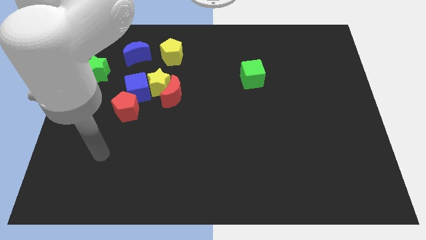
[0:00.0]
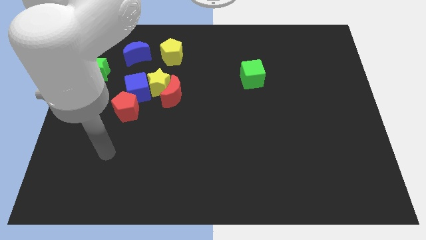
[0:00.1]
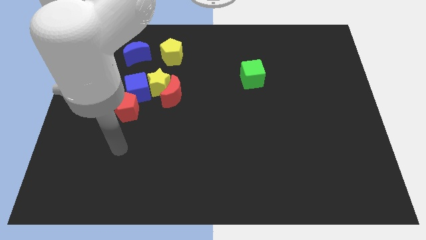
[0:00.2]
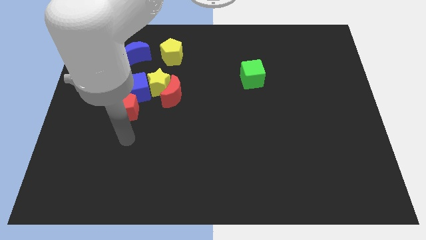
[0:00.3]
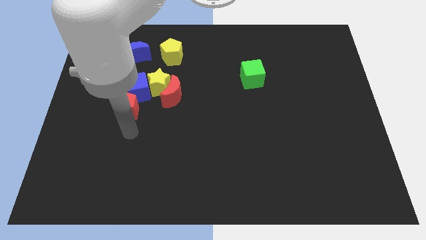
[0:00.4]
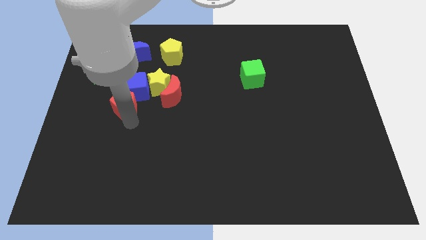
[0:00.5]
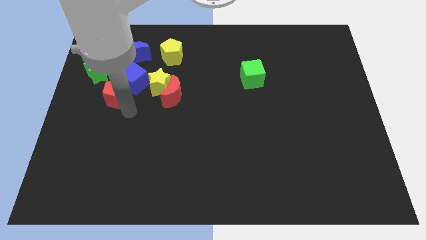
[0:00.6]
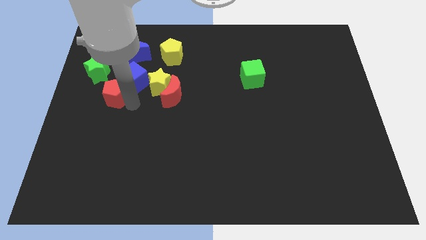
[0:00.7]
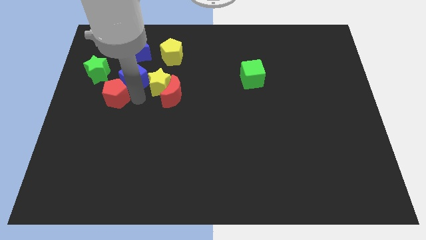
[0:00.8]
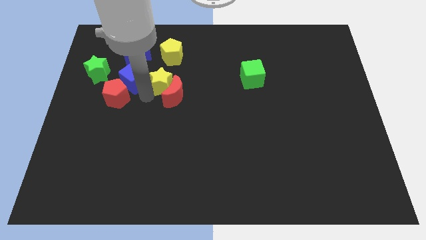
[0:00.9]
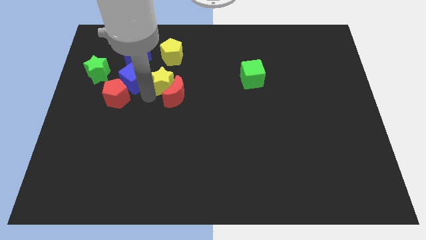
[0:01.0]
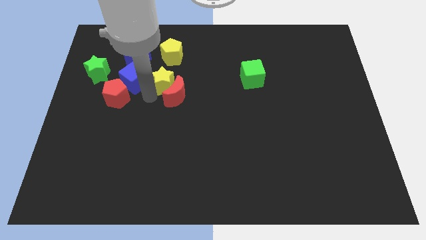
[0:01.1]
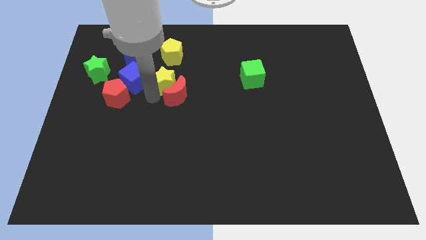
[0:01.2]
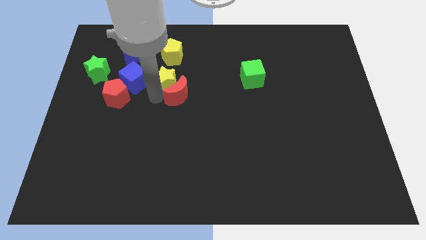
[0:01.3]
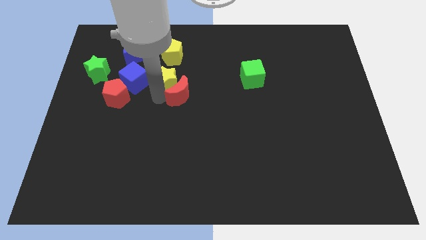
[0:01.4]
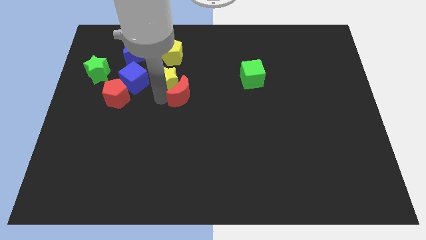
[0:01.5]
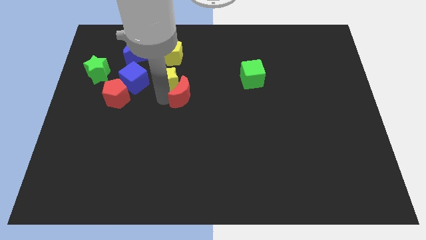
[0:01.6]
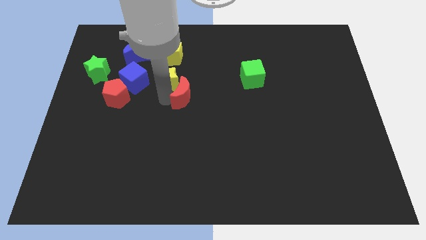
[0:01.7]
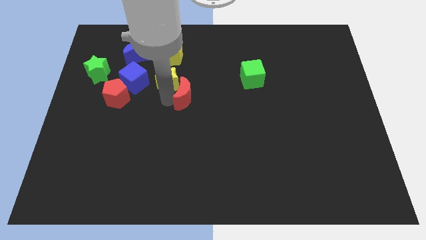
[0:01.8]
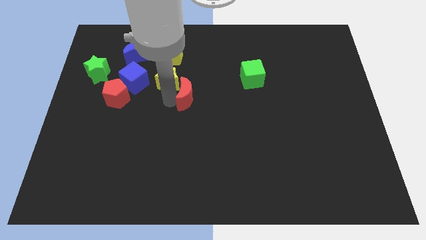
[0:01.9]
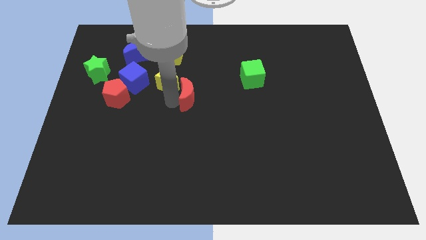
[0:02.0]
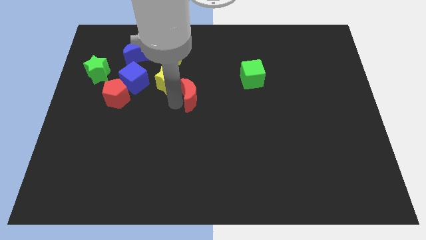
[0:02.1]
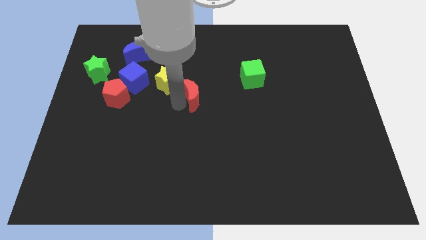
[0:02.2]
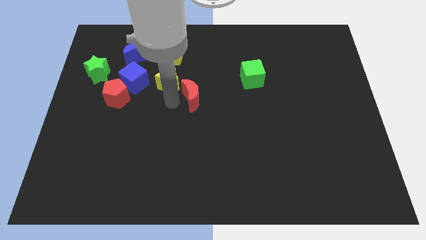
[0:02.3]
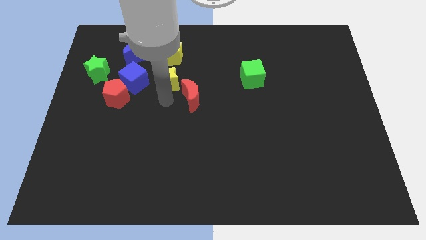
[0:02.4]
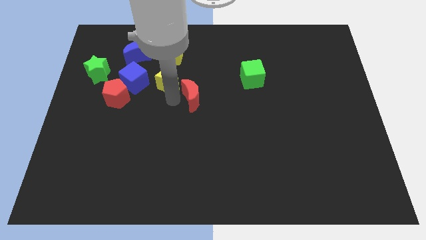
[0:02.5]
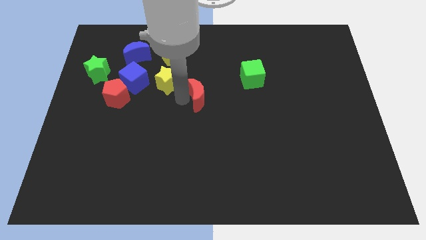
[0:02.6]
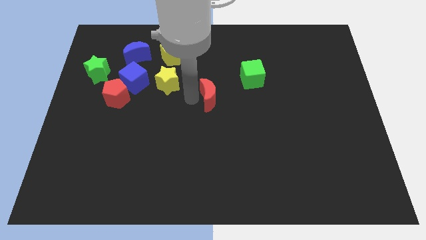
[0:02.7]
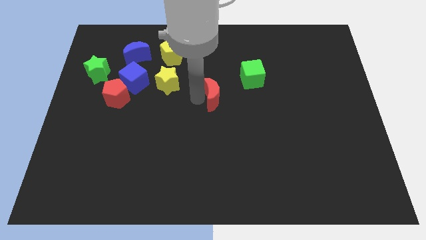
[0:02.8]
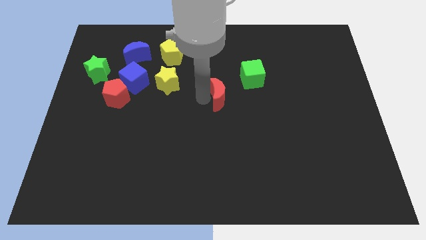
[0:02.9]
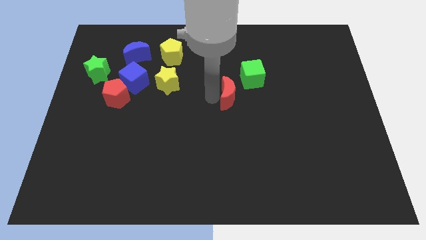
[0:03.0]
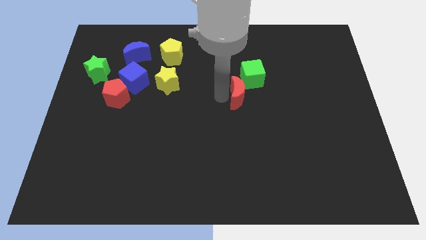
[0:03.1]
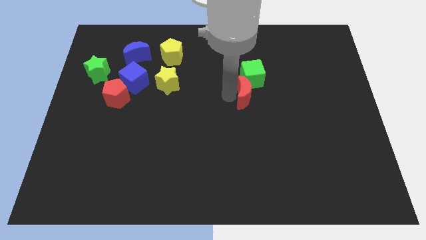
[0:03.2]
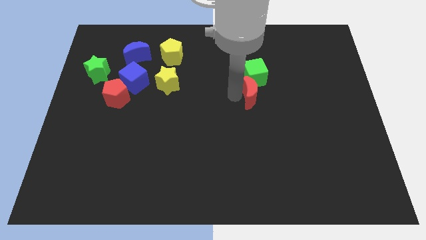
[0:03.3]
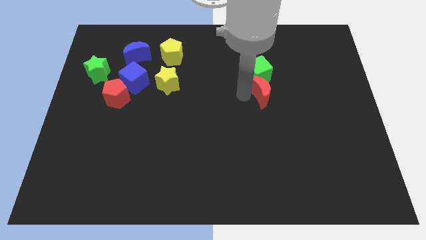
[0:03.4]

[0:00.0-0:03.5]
move the red moon to the right

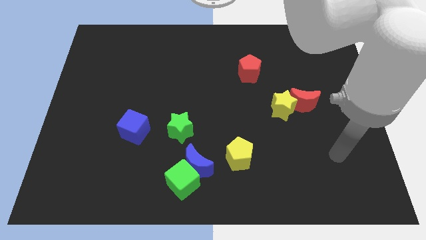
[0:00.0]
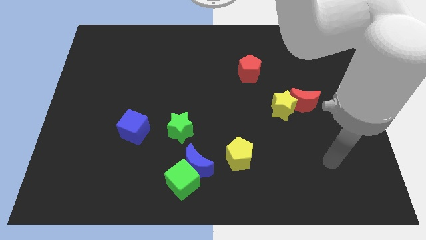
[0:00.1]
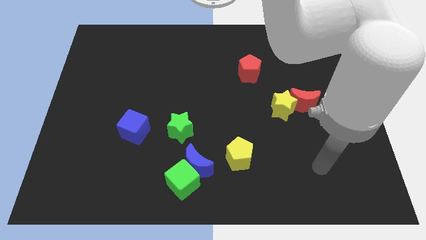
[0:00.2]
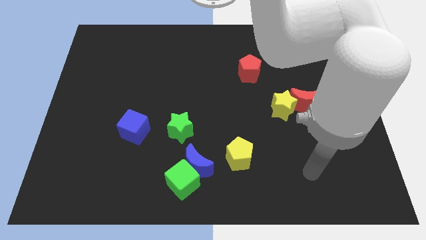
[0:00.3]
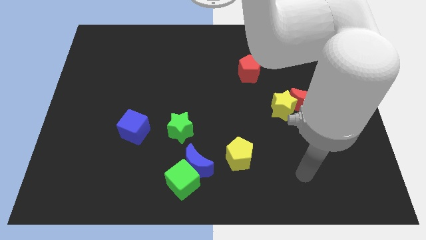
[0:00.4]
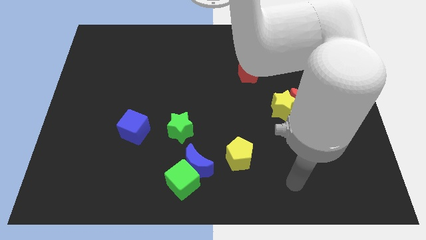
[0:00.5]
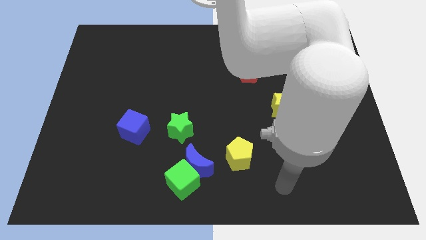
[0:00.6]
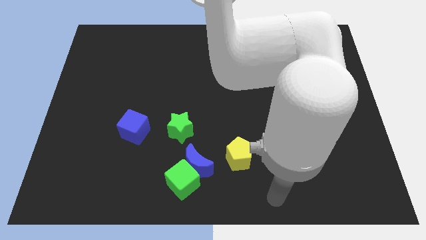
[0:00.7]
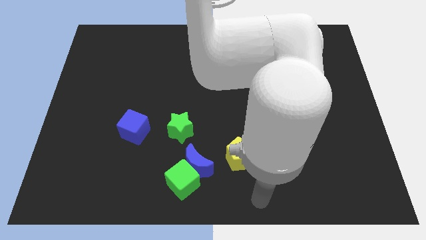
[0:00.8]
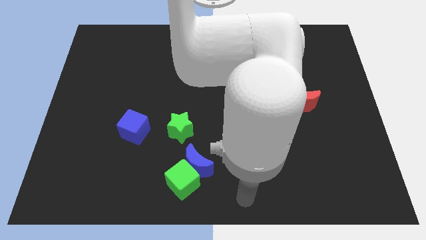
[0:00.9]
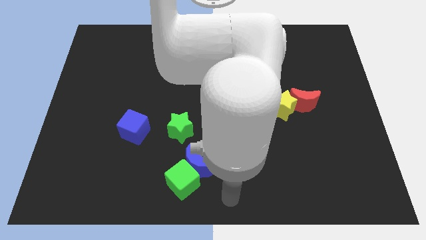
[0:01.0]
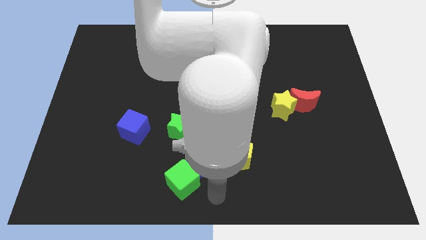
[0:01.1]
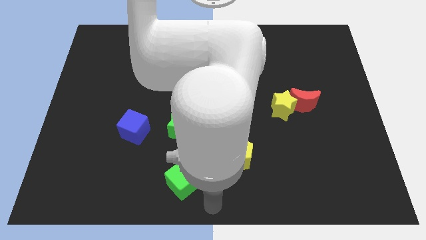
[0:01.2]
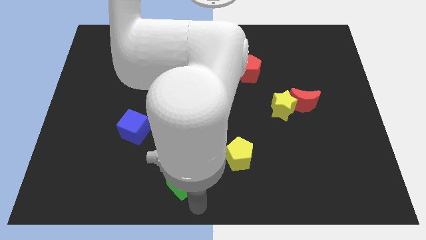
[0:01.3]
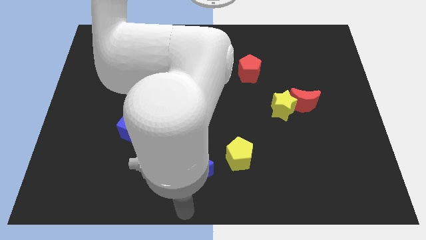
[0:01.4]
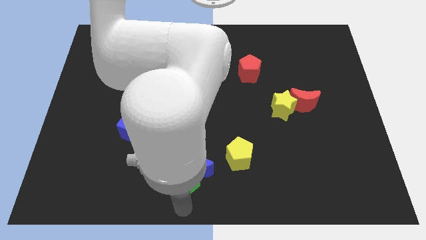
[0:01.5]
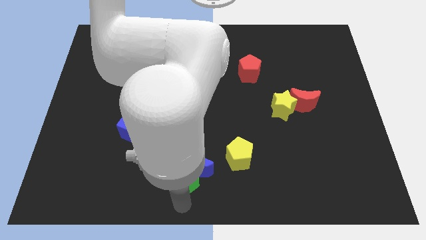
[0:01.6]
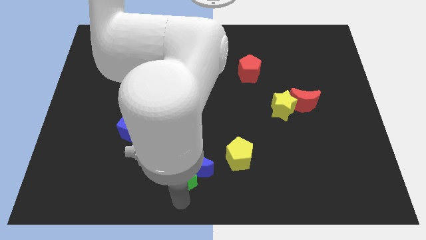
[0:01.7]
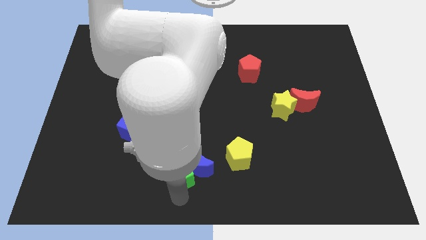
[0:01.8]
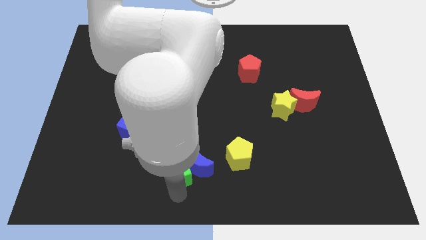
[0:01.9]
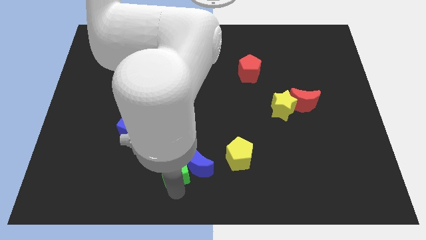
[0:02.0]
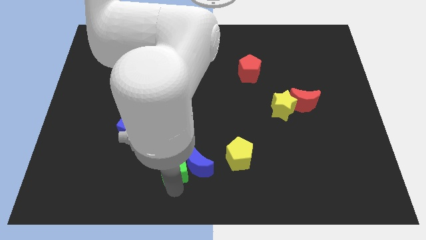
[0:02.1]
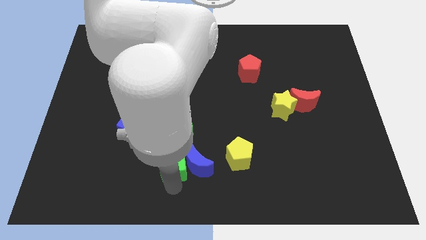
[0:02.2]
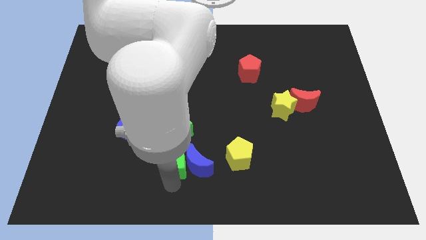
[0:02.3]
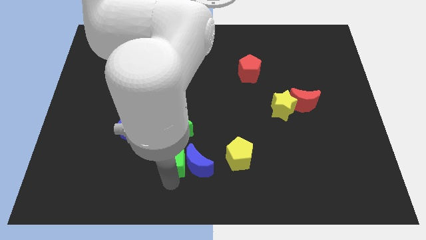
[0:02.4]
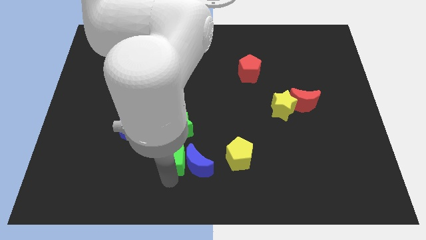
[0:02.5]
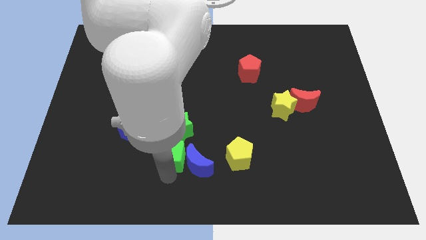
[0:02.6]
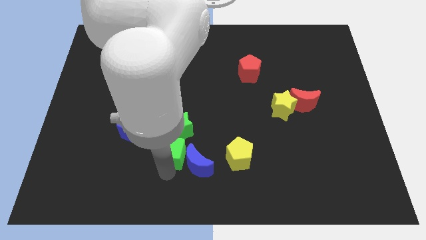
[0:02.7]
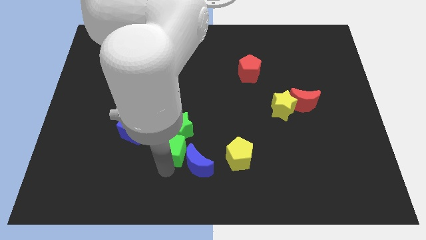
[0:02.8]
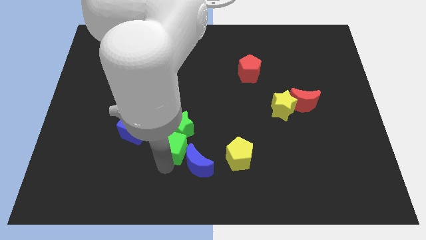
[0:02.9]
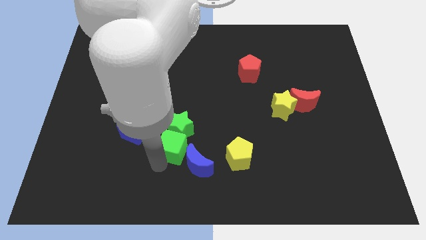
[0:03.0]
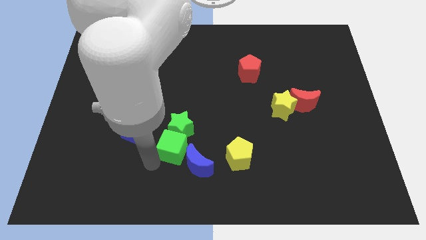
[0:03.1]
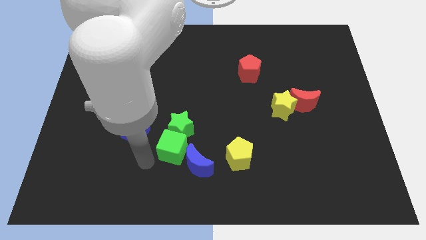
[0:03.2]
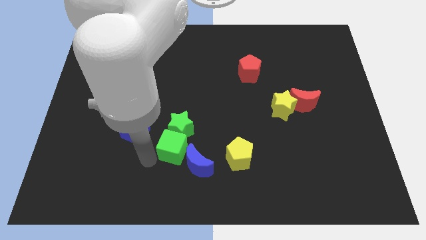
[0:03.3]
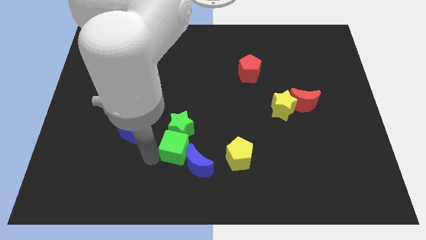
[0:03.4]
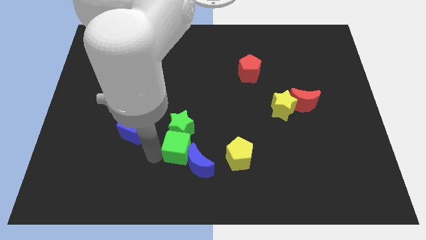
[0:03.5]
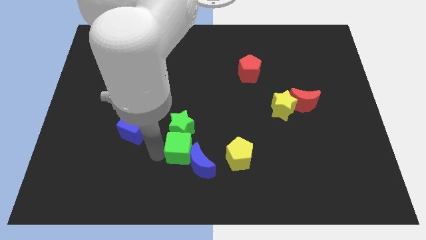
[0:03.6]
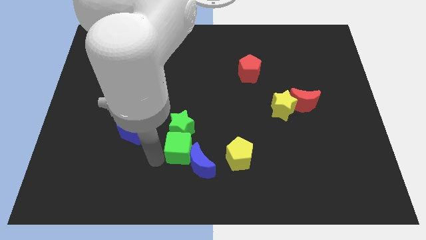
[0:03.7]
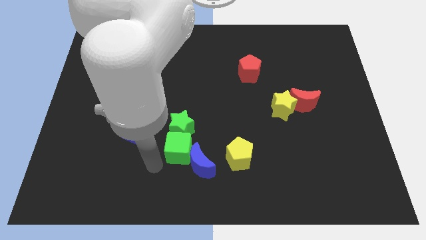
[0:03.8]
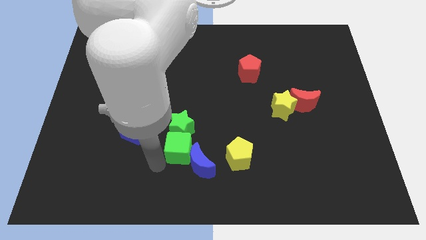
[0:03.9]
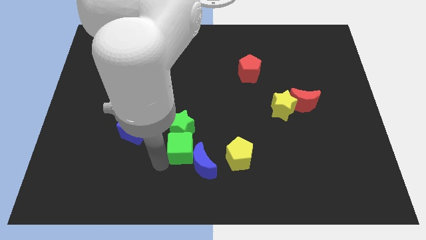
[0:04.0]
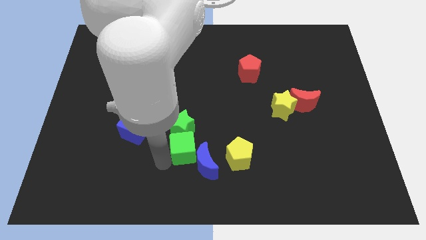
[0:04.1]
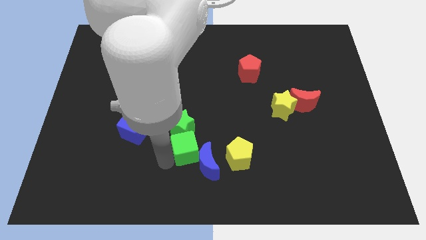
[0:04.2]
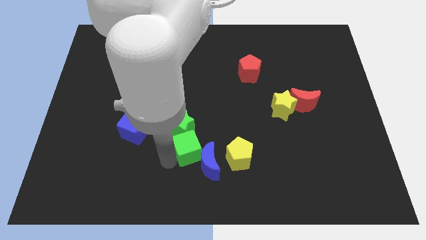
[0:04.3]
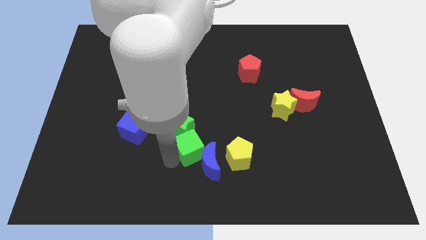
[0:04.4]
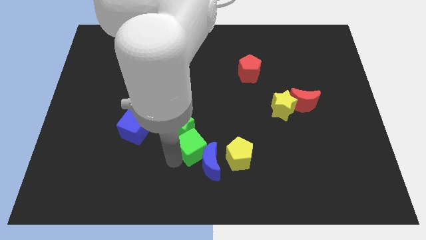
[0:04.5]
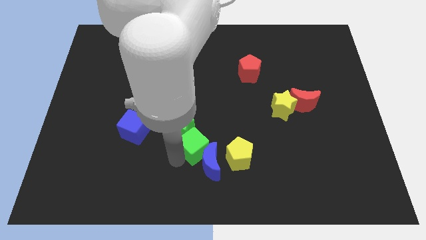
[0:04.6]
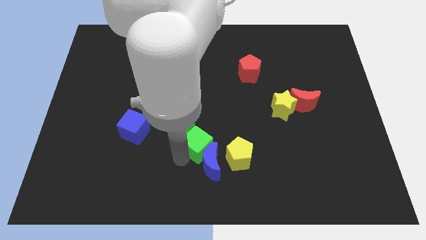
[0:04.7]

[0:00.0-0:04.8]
slightly slide the green cube up and right

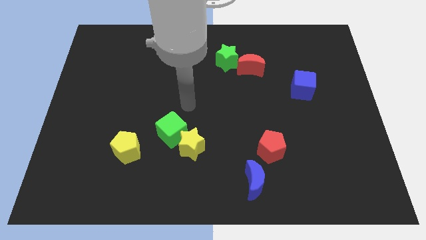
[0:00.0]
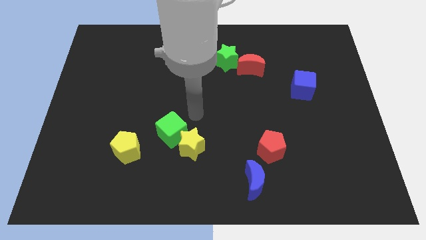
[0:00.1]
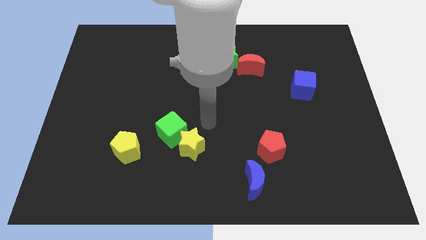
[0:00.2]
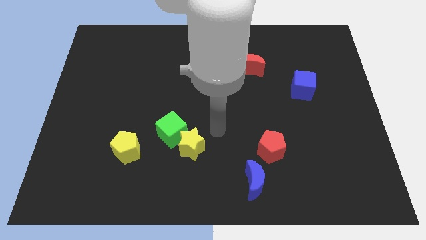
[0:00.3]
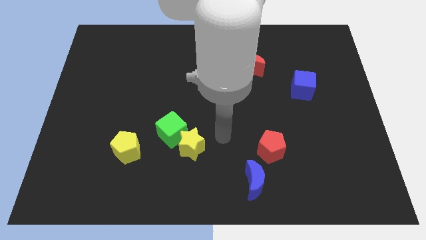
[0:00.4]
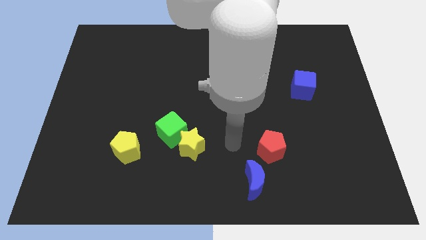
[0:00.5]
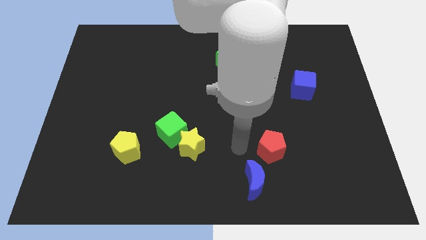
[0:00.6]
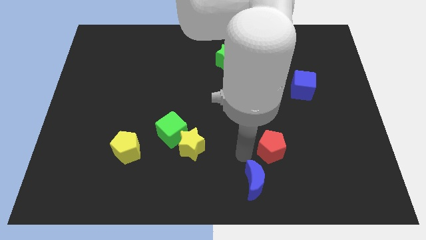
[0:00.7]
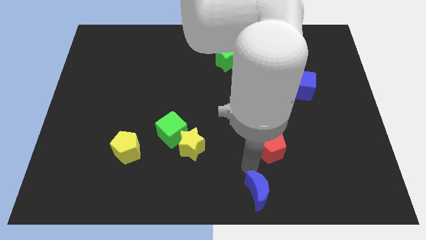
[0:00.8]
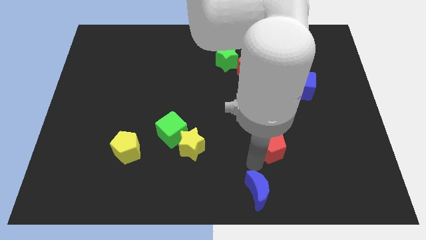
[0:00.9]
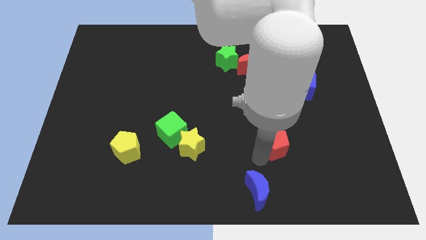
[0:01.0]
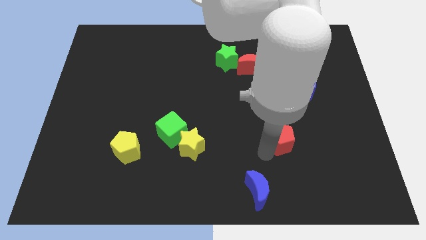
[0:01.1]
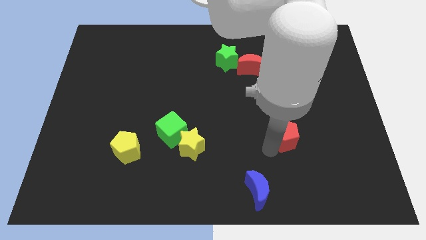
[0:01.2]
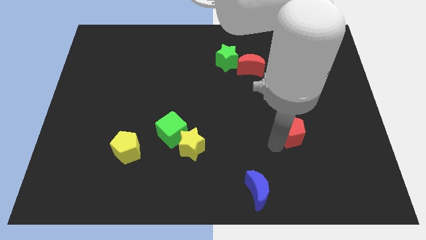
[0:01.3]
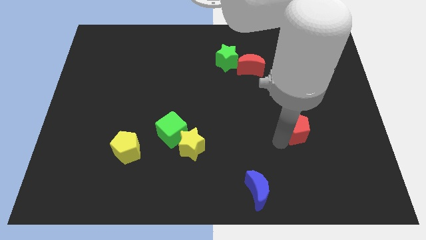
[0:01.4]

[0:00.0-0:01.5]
slightly move the red pentagon up and right diagonally
